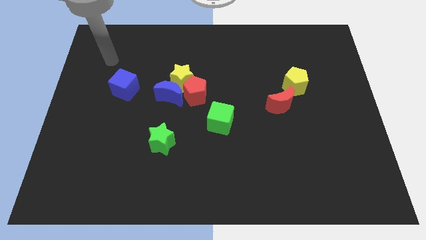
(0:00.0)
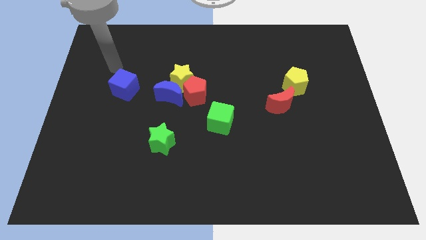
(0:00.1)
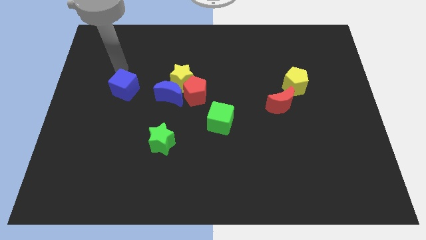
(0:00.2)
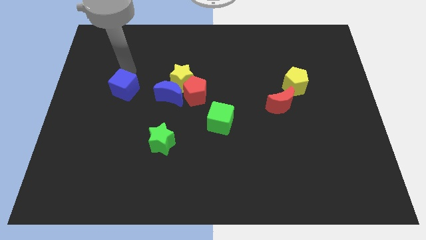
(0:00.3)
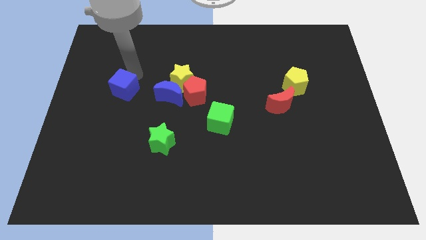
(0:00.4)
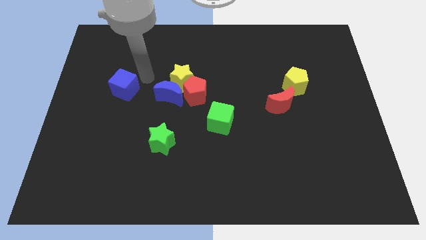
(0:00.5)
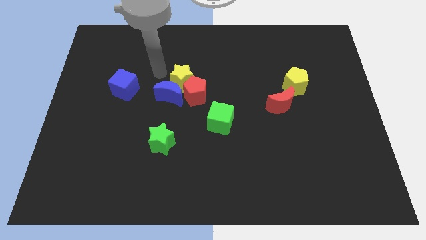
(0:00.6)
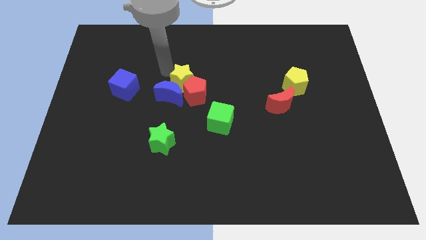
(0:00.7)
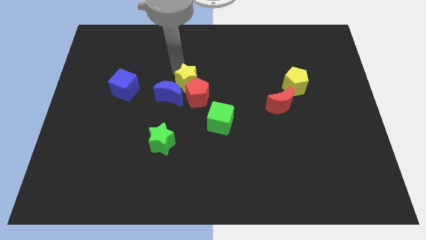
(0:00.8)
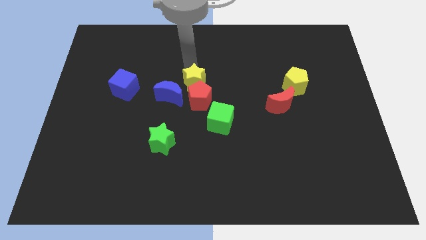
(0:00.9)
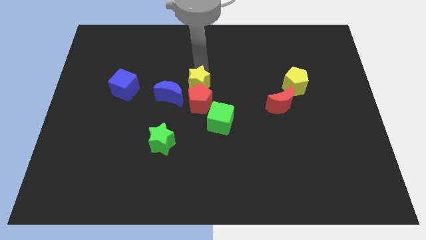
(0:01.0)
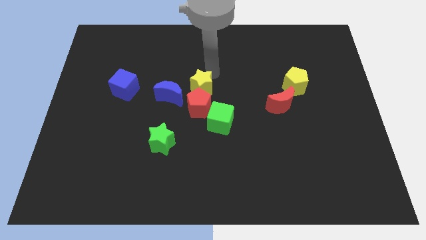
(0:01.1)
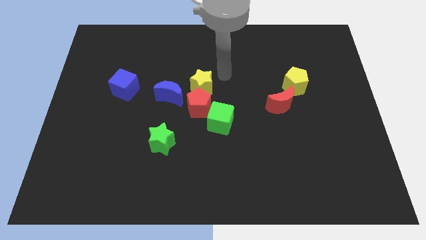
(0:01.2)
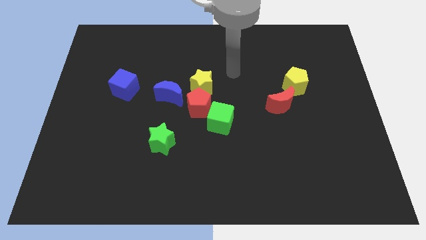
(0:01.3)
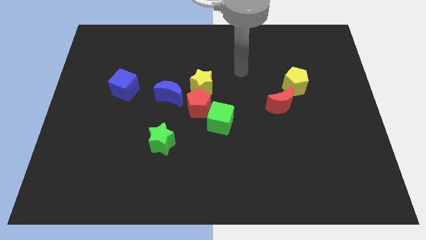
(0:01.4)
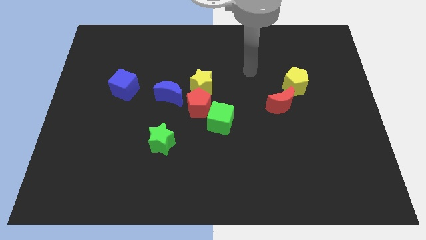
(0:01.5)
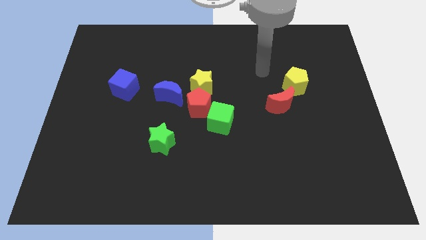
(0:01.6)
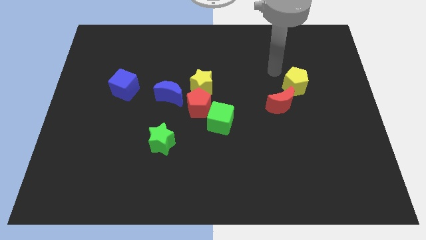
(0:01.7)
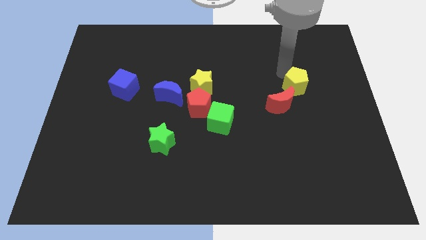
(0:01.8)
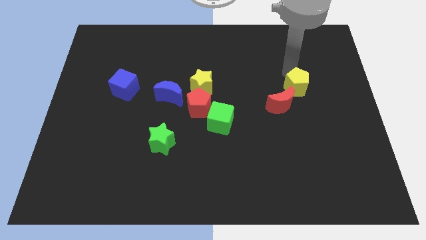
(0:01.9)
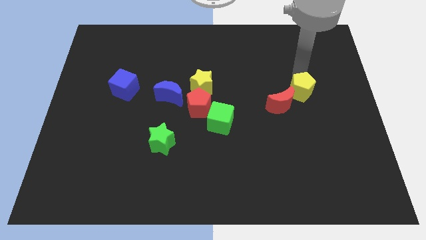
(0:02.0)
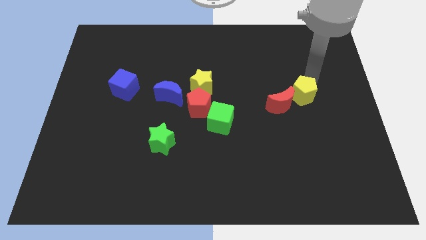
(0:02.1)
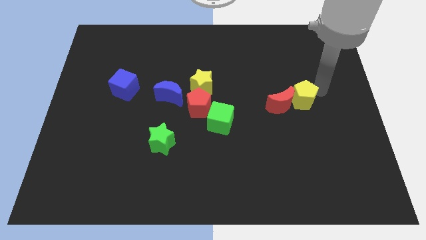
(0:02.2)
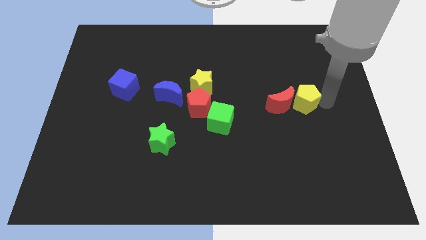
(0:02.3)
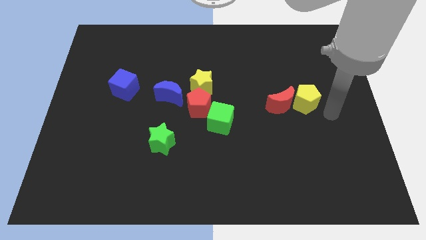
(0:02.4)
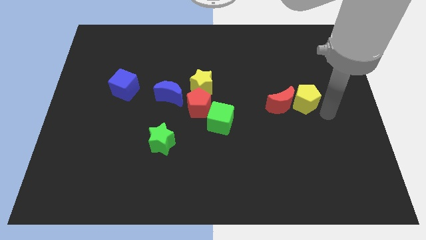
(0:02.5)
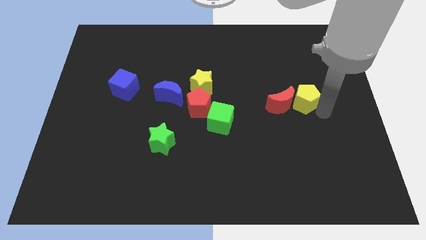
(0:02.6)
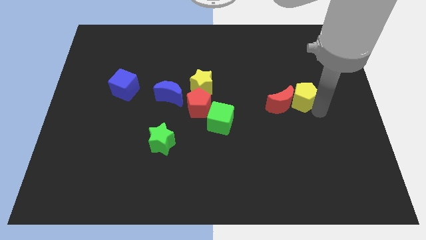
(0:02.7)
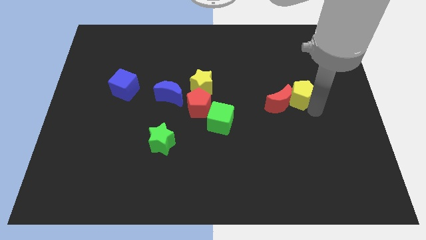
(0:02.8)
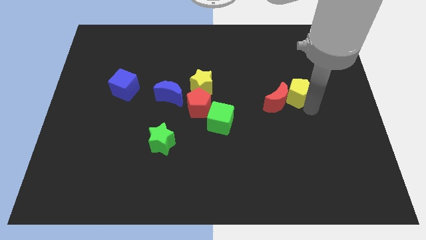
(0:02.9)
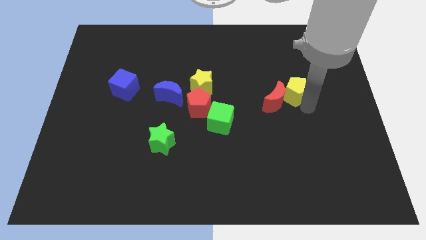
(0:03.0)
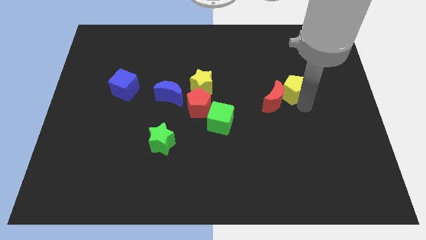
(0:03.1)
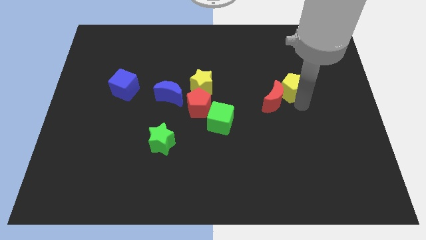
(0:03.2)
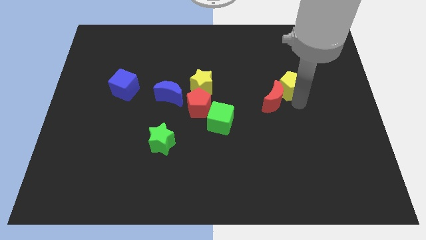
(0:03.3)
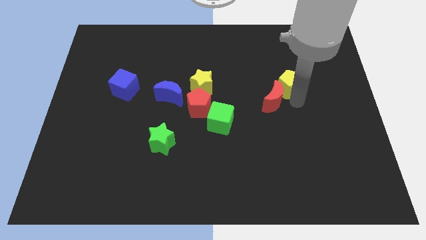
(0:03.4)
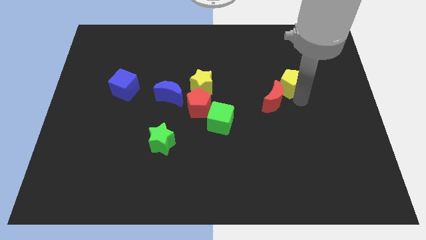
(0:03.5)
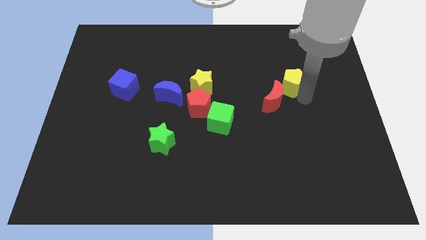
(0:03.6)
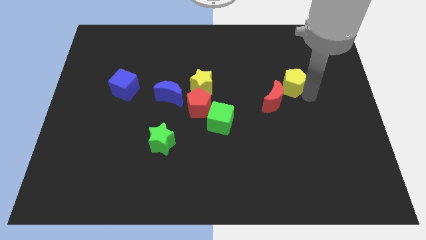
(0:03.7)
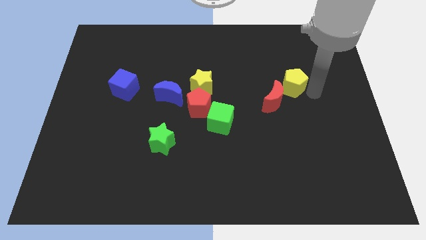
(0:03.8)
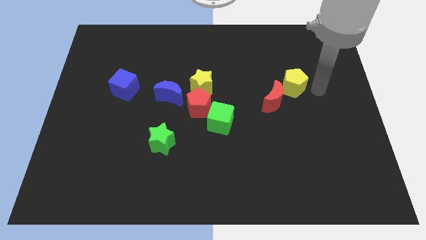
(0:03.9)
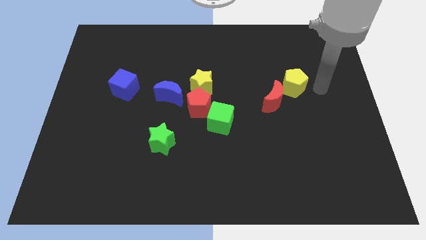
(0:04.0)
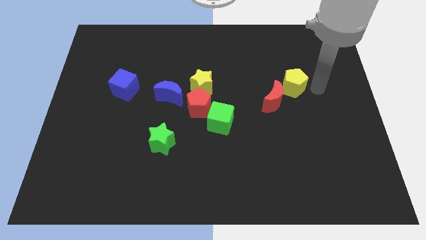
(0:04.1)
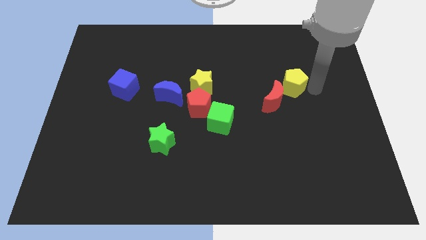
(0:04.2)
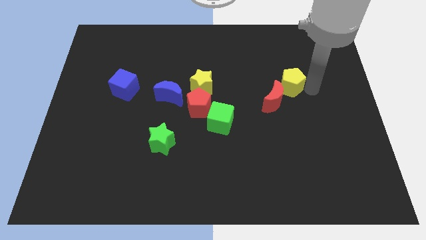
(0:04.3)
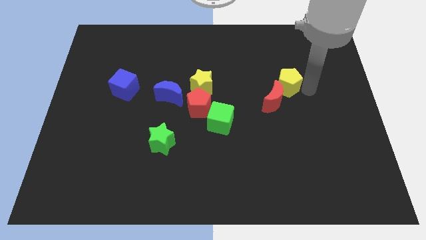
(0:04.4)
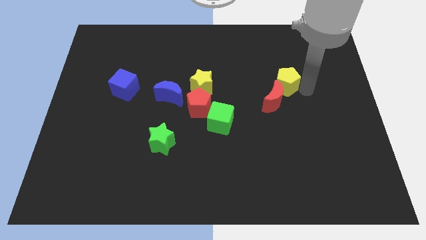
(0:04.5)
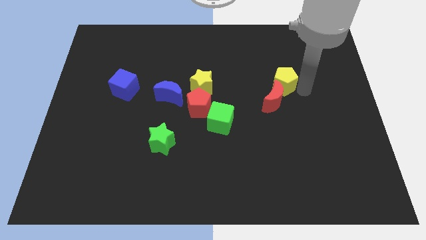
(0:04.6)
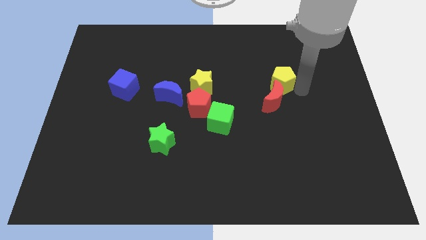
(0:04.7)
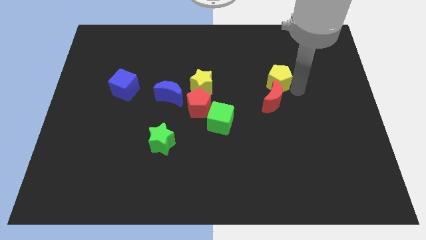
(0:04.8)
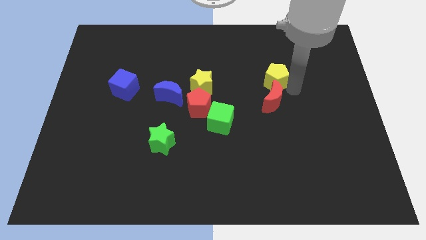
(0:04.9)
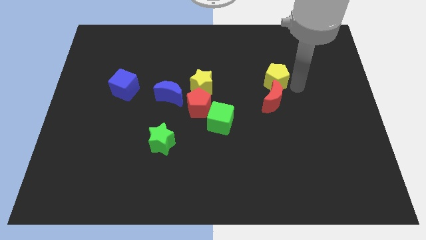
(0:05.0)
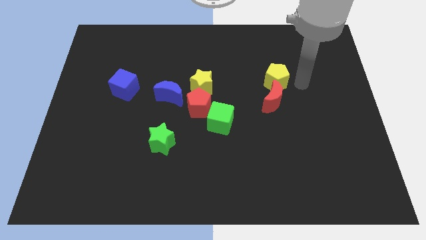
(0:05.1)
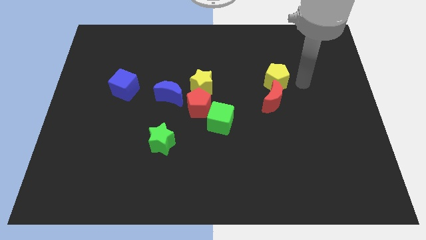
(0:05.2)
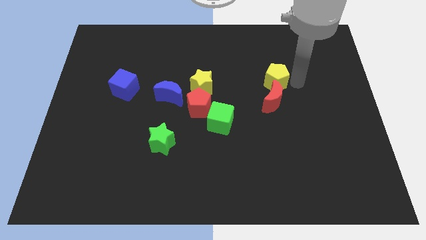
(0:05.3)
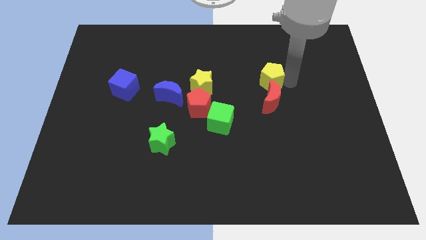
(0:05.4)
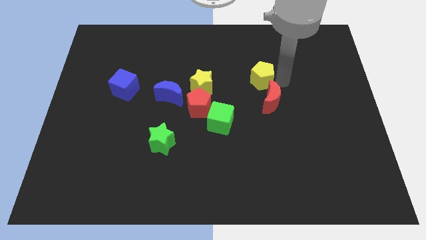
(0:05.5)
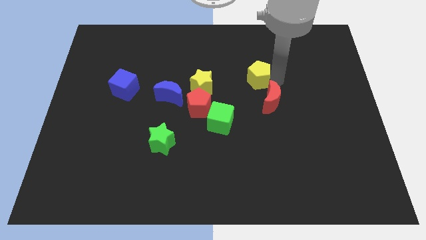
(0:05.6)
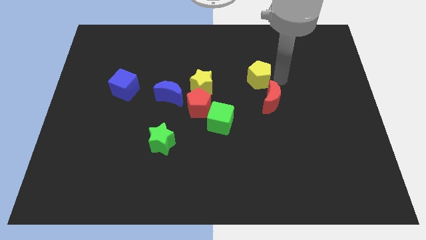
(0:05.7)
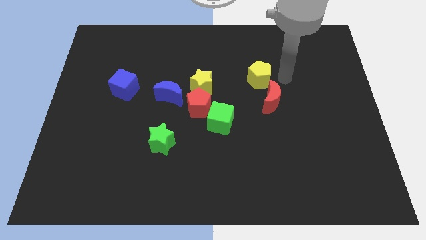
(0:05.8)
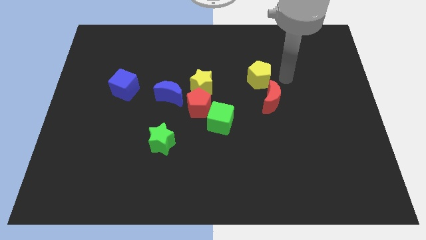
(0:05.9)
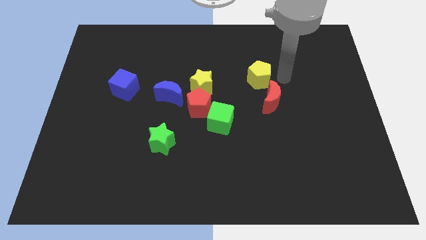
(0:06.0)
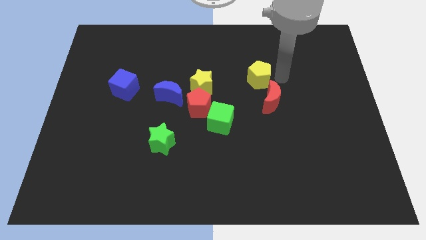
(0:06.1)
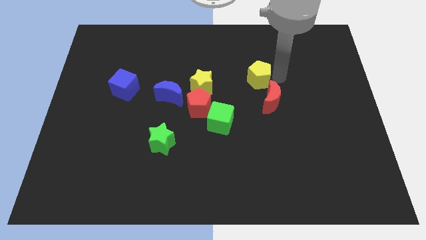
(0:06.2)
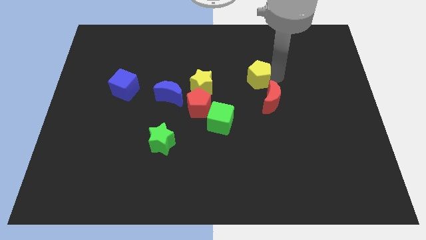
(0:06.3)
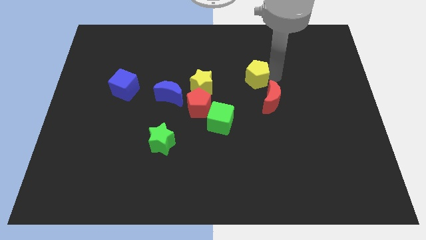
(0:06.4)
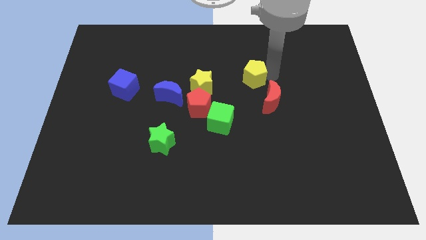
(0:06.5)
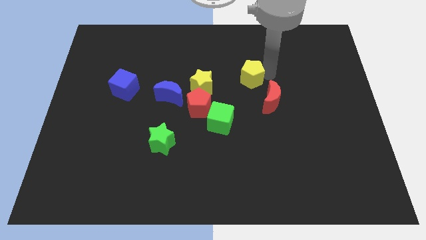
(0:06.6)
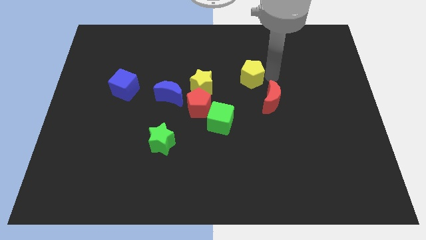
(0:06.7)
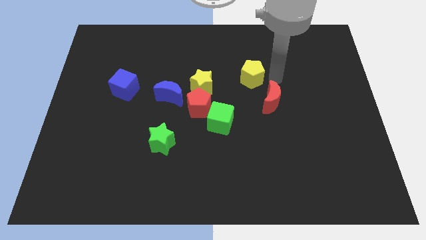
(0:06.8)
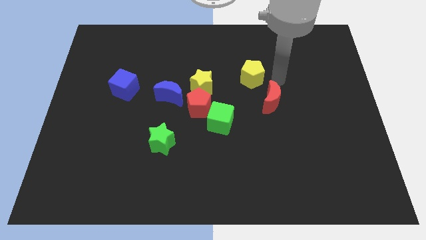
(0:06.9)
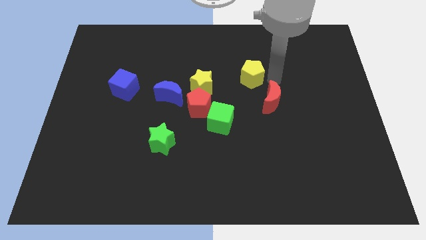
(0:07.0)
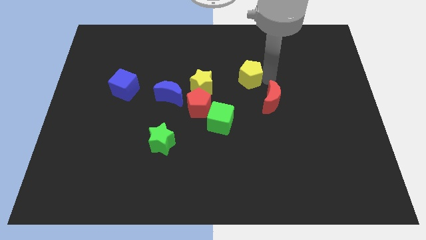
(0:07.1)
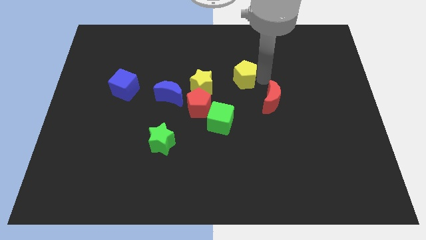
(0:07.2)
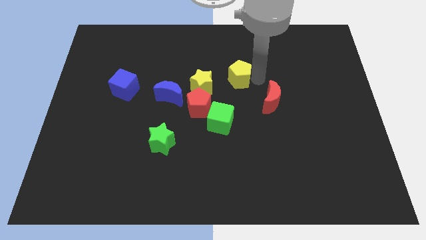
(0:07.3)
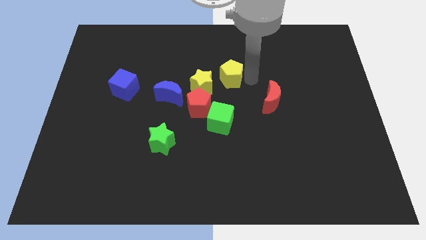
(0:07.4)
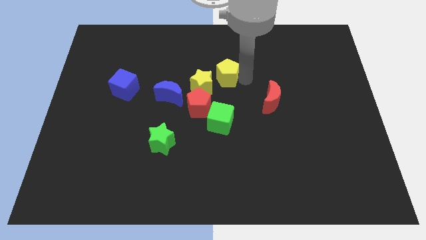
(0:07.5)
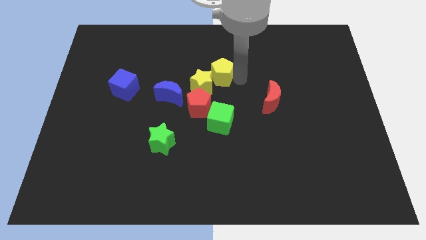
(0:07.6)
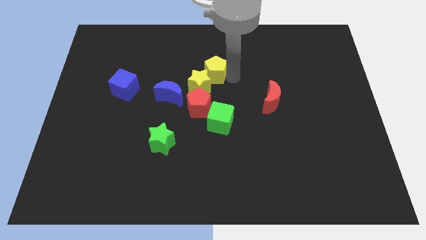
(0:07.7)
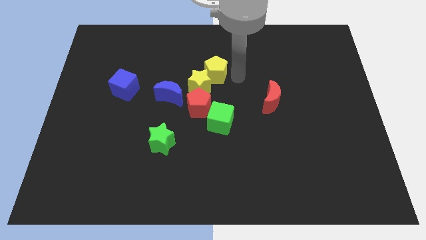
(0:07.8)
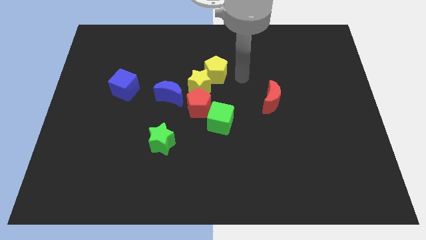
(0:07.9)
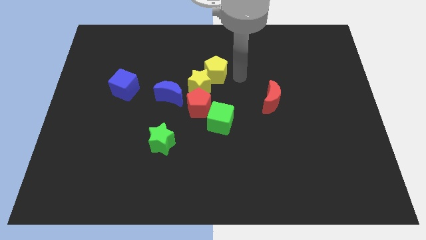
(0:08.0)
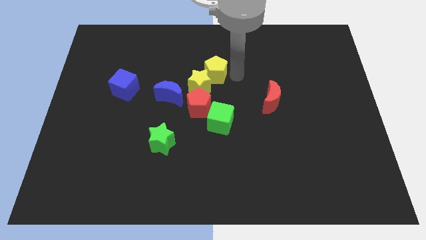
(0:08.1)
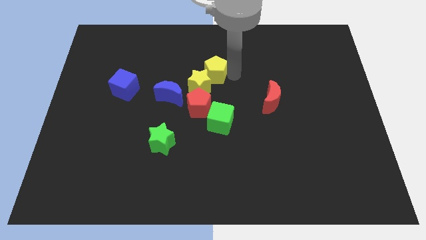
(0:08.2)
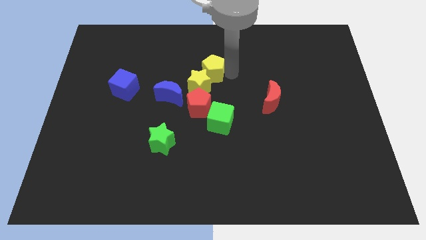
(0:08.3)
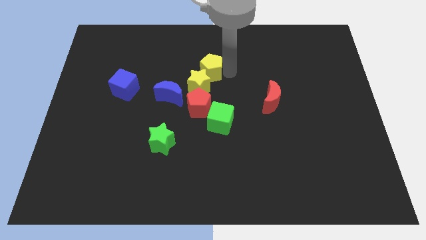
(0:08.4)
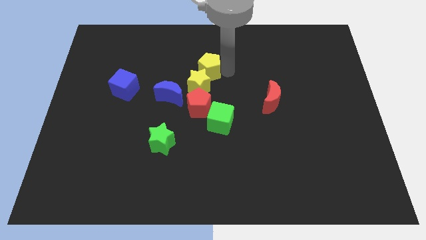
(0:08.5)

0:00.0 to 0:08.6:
push the yellow pentagon left

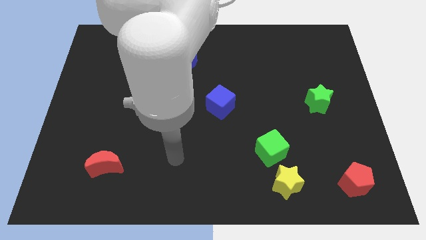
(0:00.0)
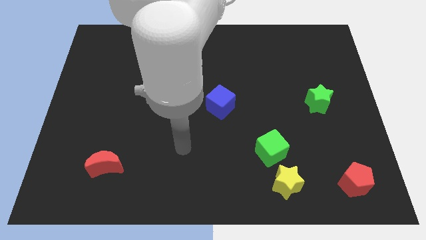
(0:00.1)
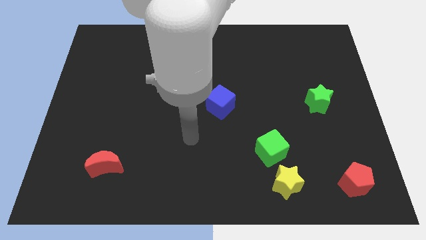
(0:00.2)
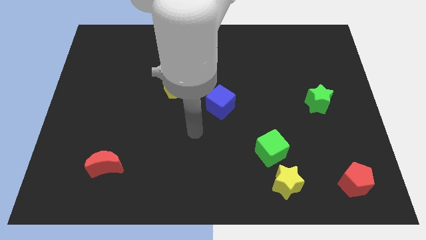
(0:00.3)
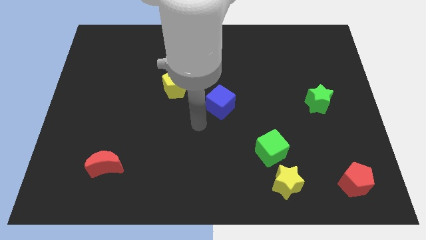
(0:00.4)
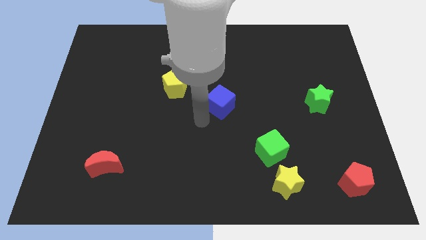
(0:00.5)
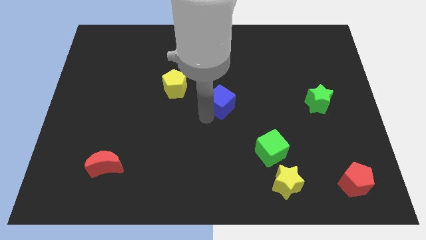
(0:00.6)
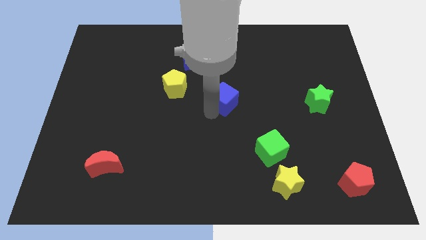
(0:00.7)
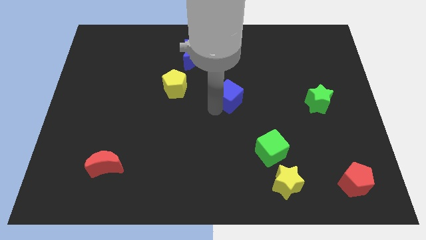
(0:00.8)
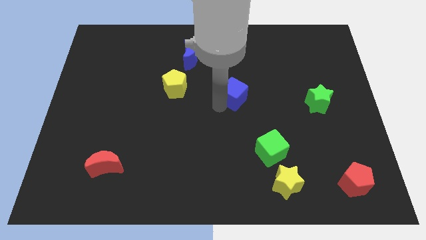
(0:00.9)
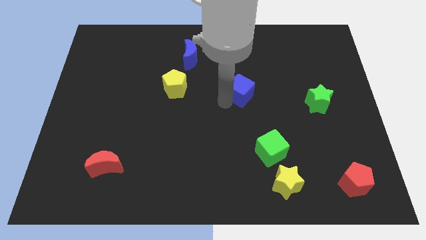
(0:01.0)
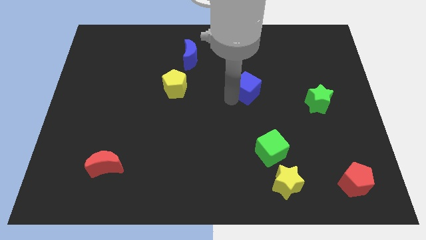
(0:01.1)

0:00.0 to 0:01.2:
move the blue cube a little bit up and right
